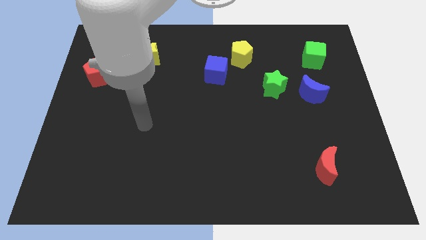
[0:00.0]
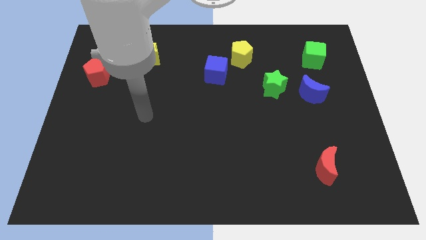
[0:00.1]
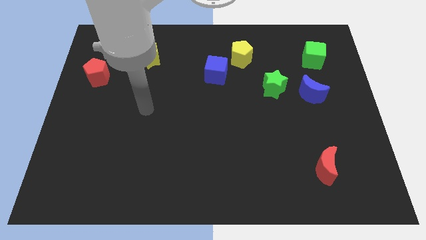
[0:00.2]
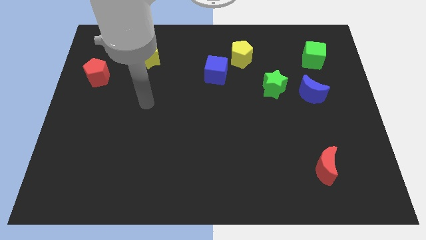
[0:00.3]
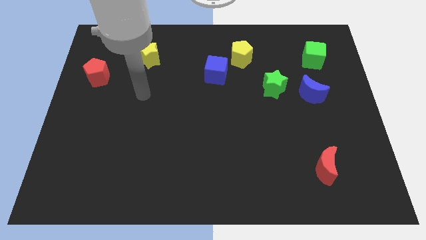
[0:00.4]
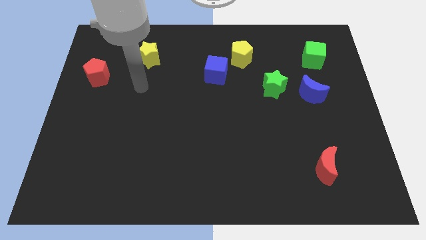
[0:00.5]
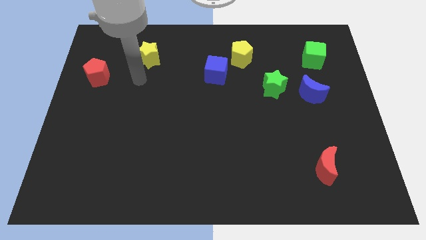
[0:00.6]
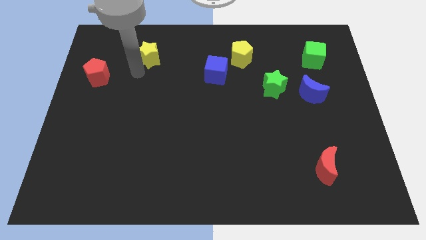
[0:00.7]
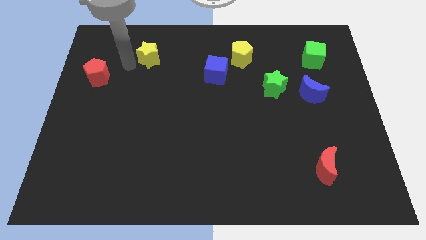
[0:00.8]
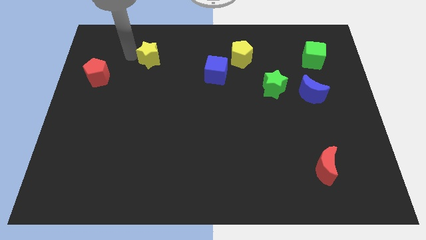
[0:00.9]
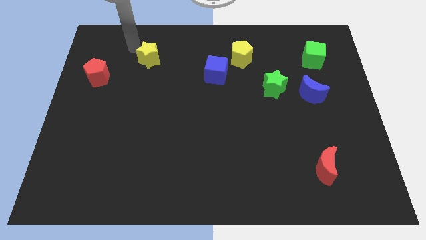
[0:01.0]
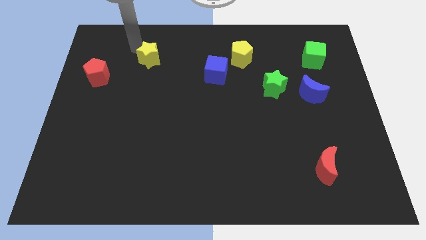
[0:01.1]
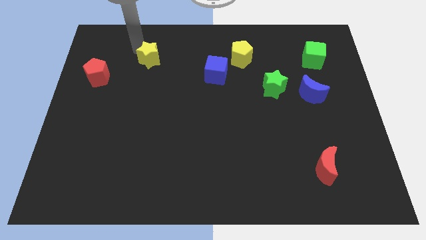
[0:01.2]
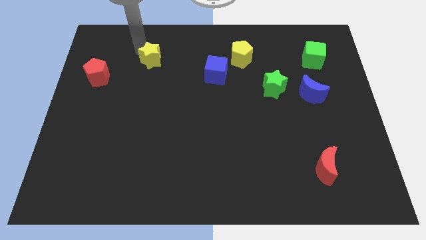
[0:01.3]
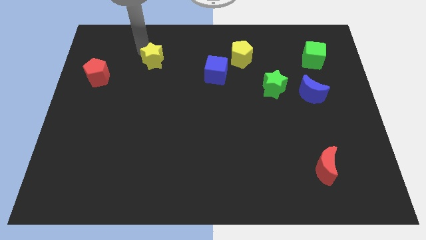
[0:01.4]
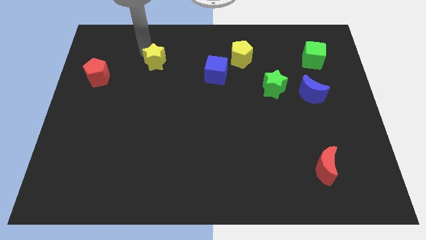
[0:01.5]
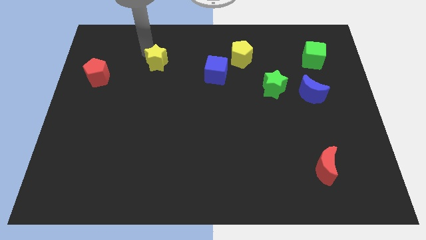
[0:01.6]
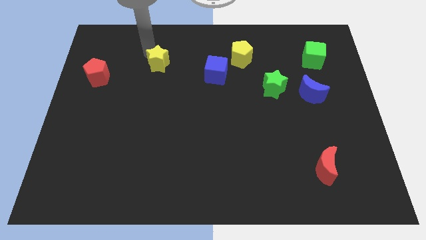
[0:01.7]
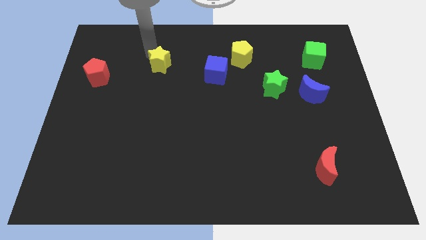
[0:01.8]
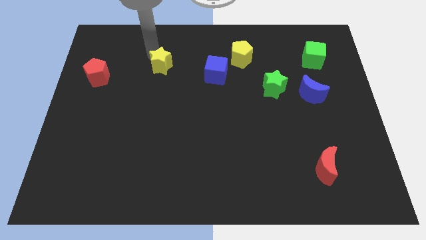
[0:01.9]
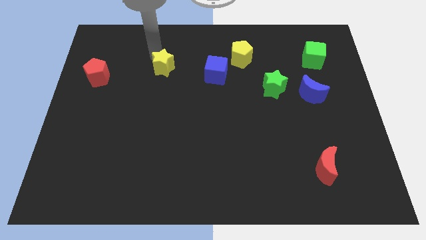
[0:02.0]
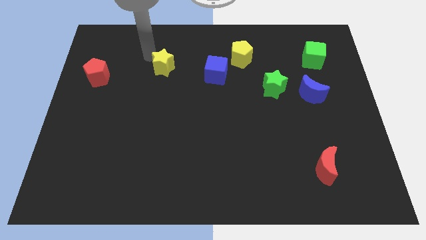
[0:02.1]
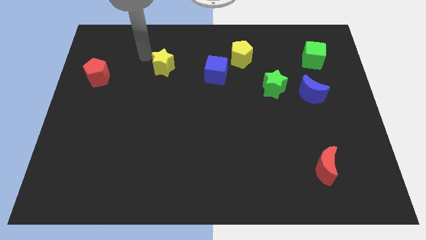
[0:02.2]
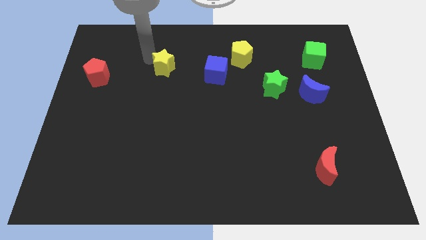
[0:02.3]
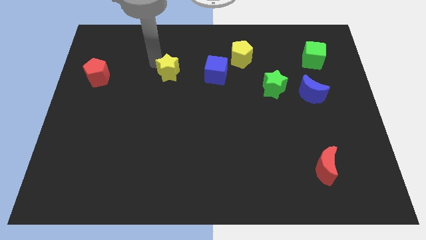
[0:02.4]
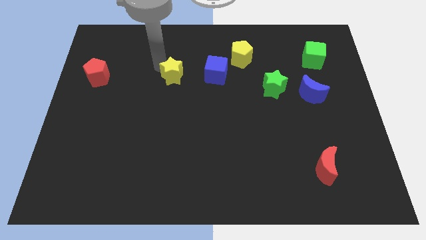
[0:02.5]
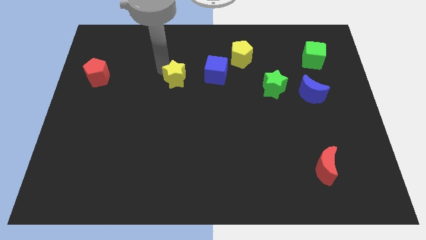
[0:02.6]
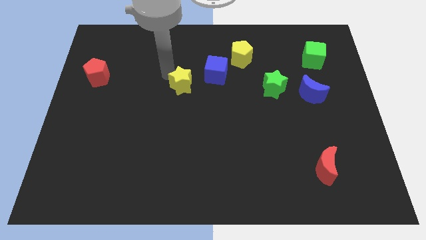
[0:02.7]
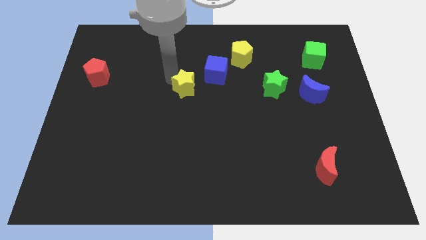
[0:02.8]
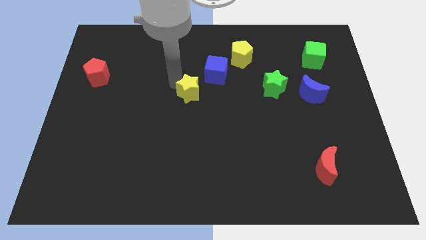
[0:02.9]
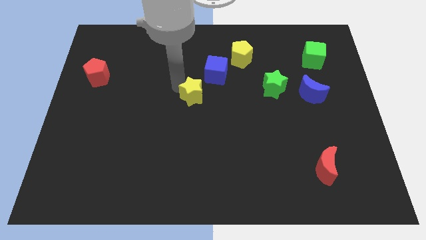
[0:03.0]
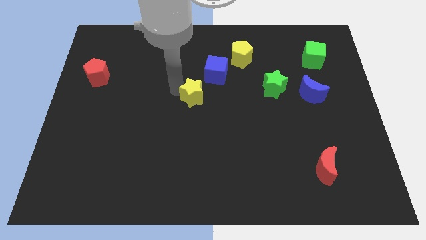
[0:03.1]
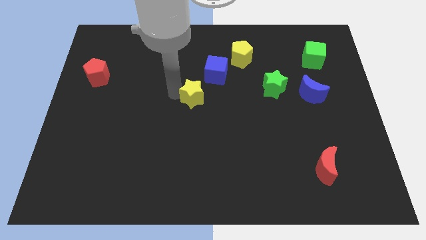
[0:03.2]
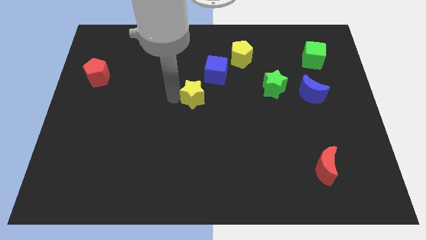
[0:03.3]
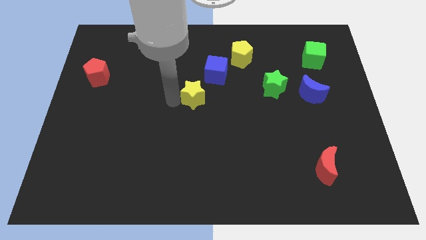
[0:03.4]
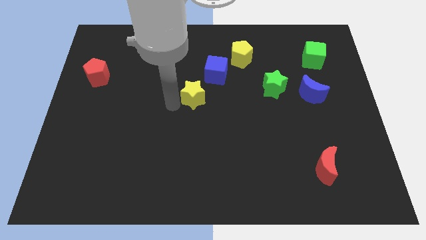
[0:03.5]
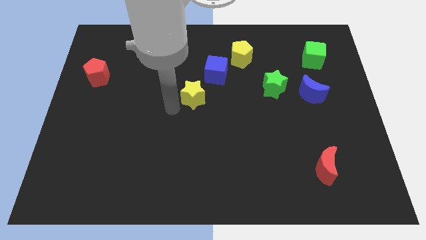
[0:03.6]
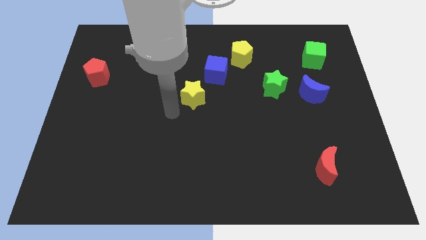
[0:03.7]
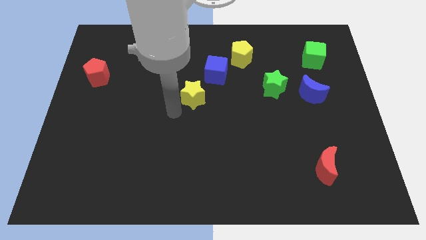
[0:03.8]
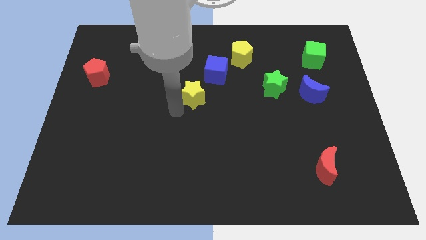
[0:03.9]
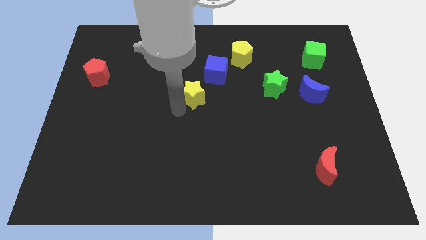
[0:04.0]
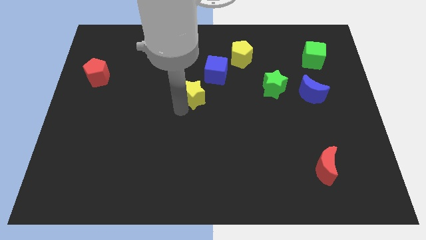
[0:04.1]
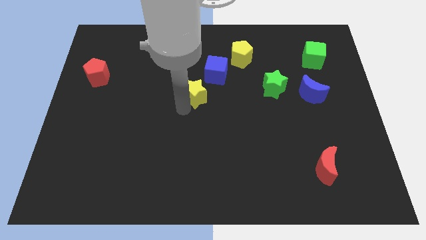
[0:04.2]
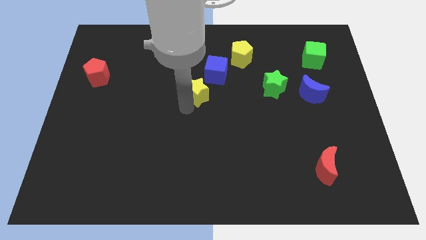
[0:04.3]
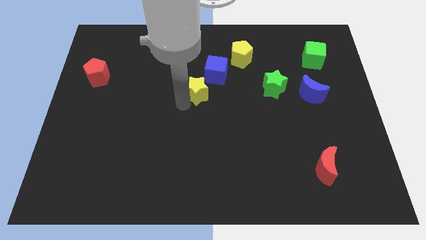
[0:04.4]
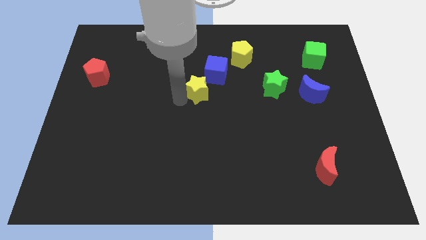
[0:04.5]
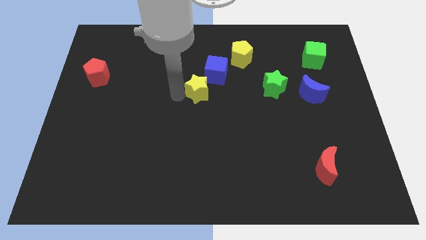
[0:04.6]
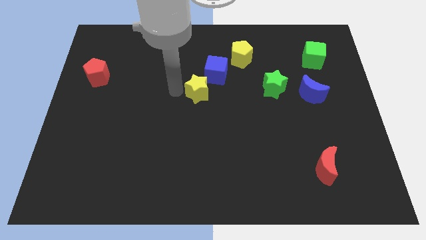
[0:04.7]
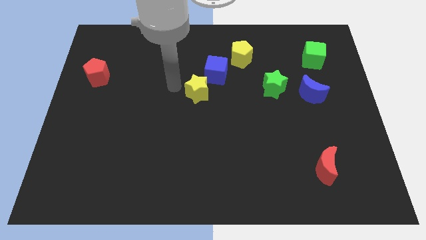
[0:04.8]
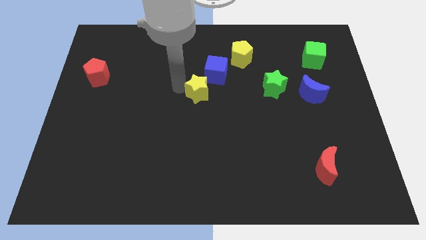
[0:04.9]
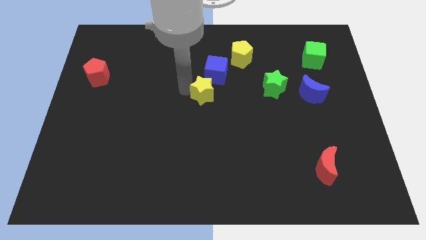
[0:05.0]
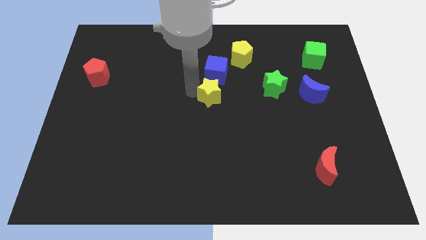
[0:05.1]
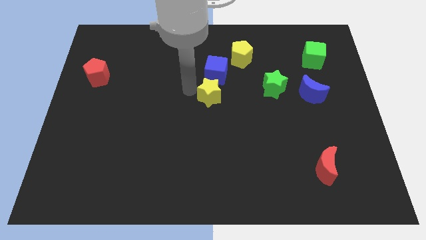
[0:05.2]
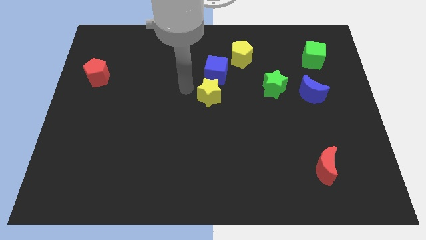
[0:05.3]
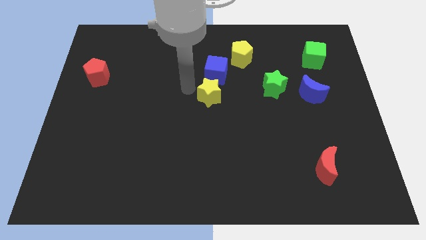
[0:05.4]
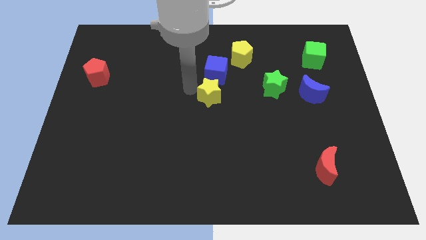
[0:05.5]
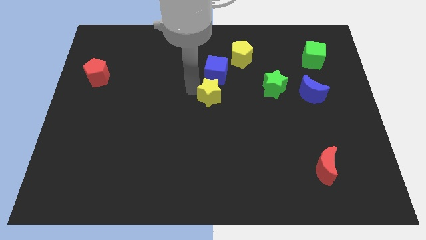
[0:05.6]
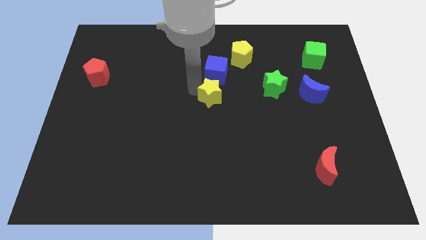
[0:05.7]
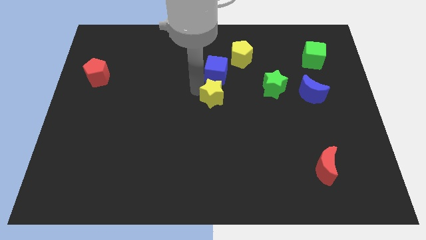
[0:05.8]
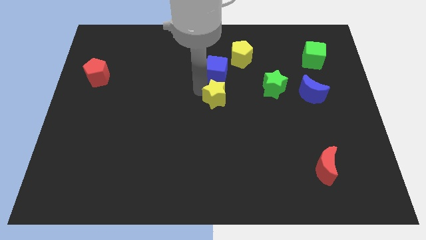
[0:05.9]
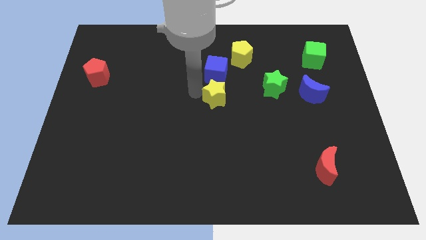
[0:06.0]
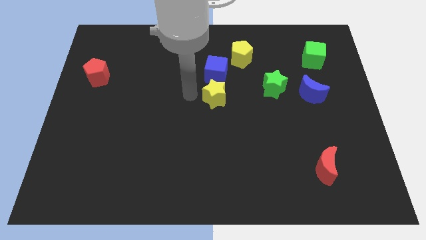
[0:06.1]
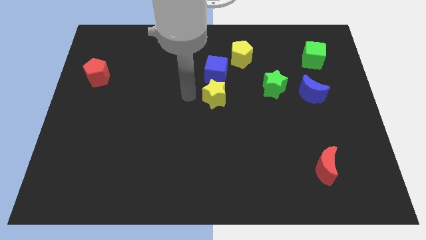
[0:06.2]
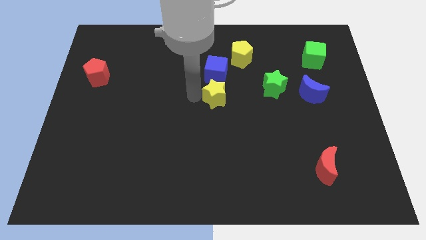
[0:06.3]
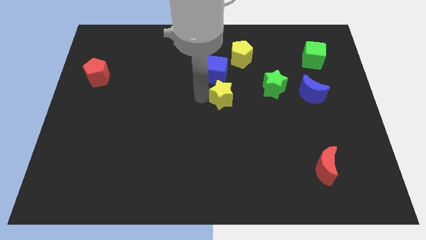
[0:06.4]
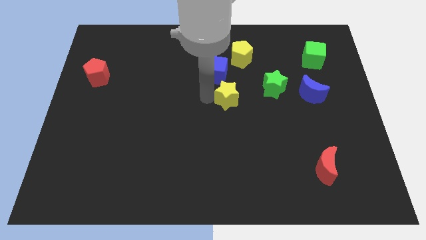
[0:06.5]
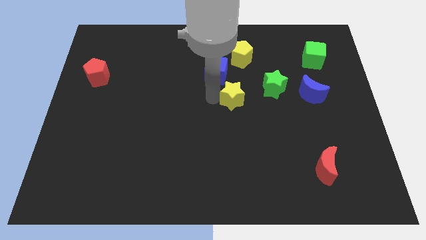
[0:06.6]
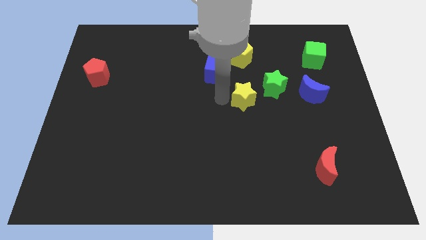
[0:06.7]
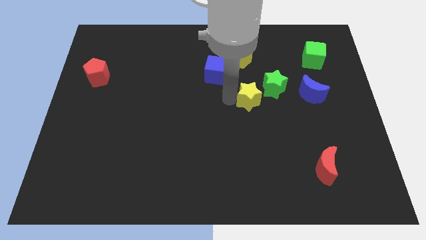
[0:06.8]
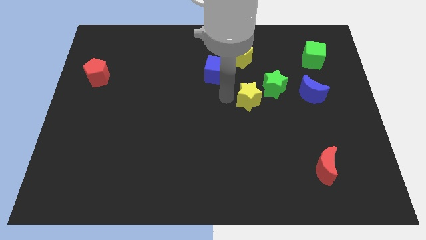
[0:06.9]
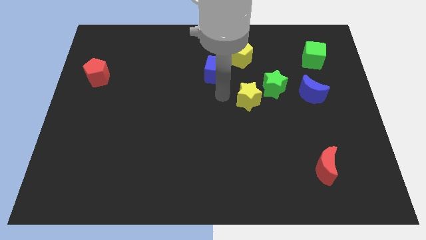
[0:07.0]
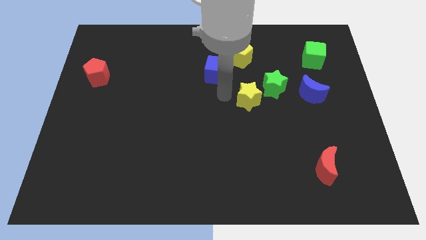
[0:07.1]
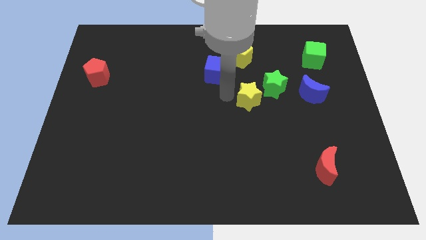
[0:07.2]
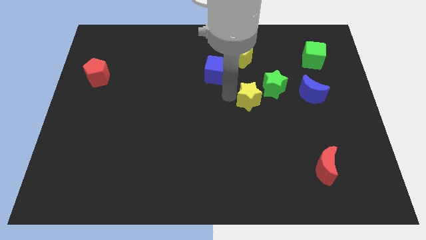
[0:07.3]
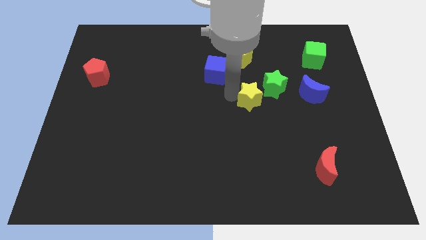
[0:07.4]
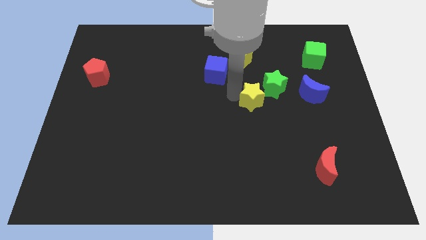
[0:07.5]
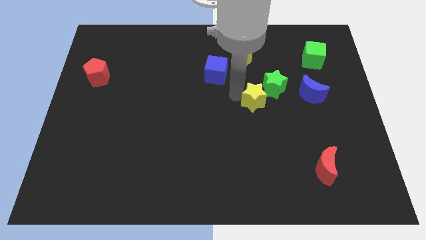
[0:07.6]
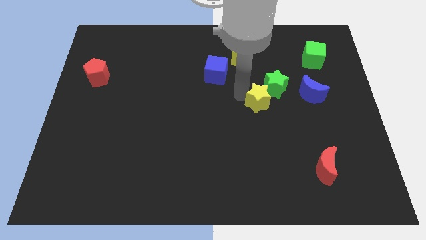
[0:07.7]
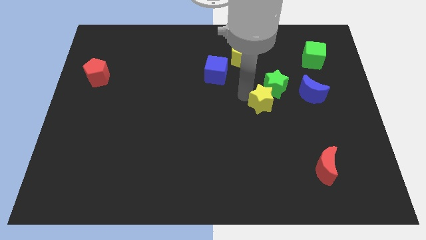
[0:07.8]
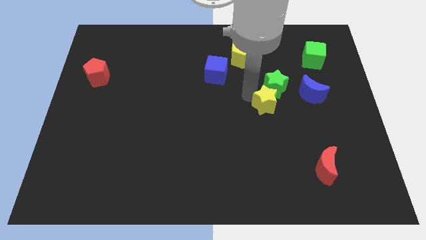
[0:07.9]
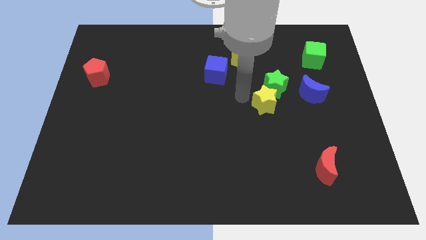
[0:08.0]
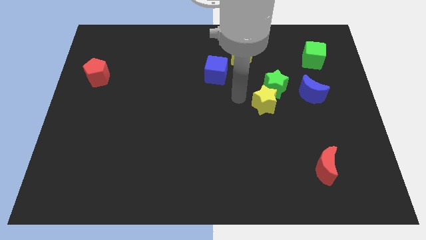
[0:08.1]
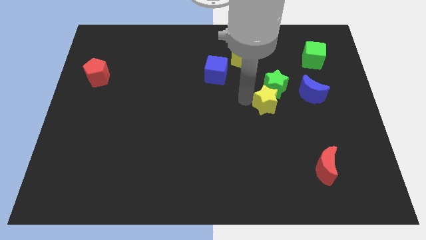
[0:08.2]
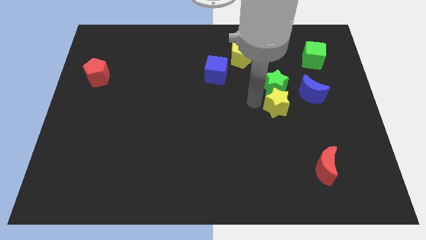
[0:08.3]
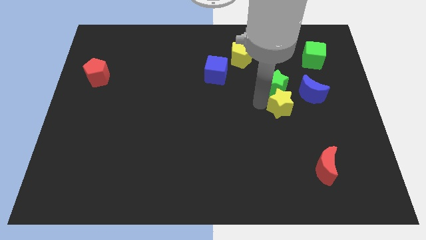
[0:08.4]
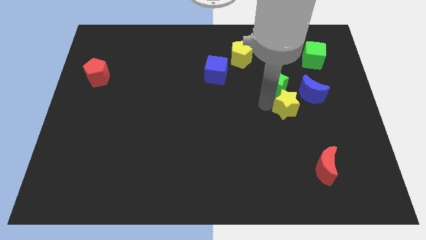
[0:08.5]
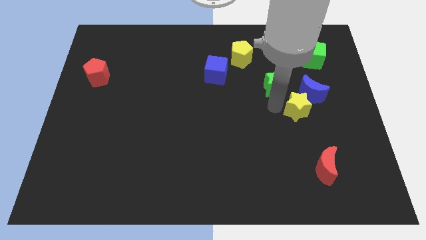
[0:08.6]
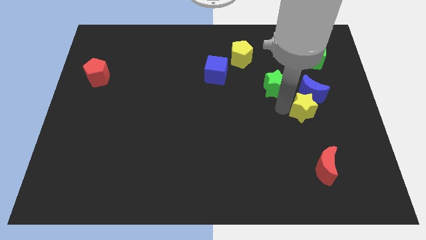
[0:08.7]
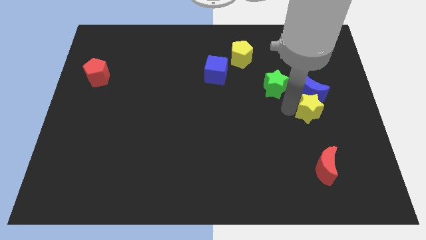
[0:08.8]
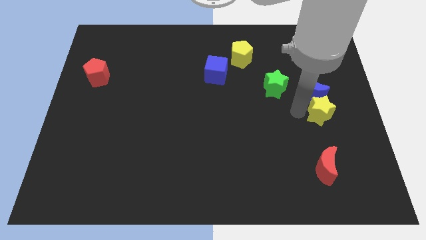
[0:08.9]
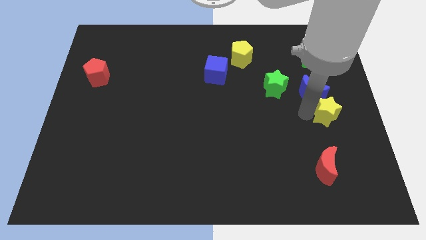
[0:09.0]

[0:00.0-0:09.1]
put the yellow star to the center right
